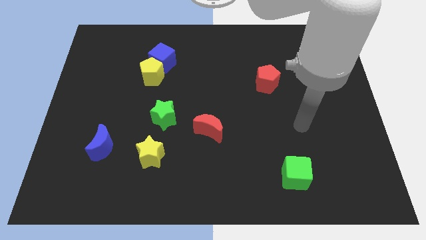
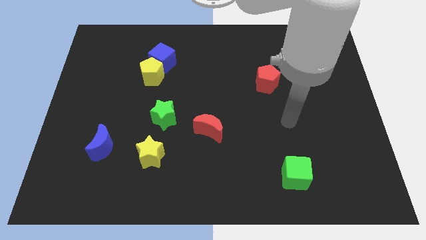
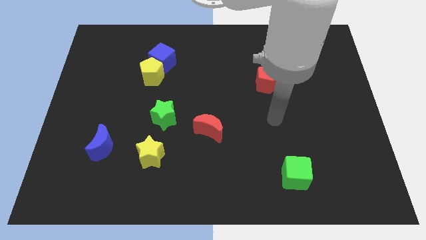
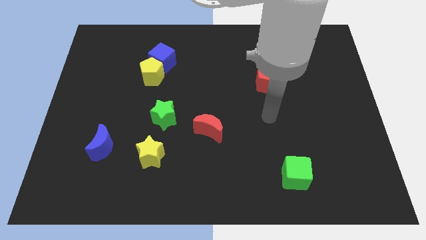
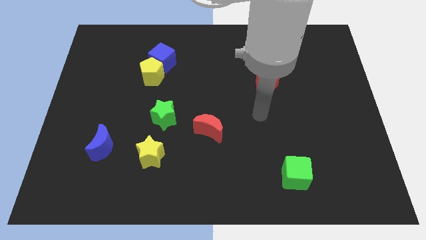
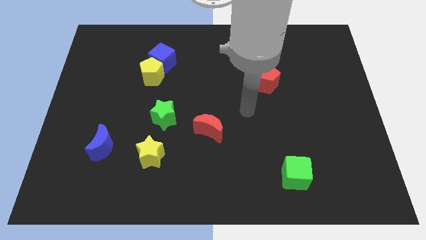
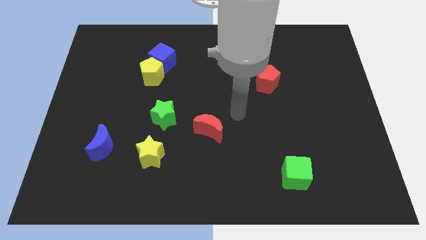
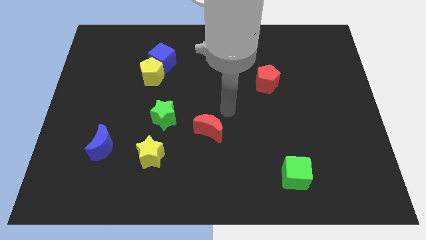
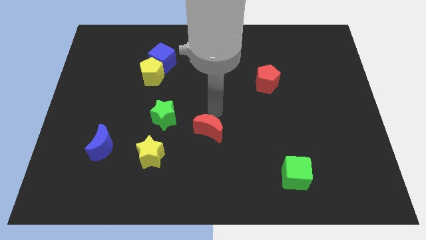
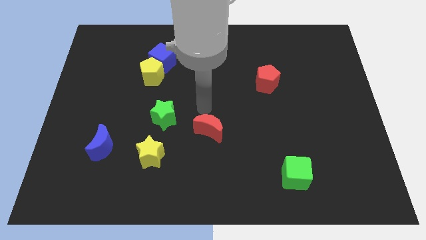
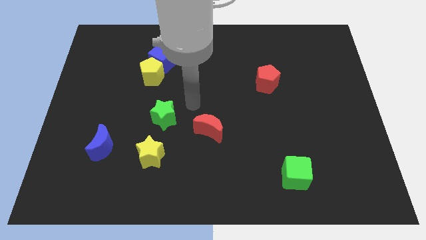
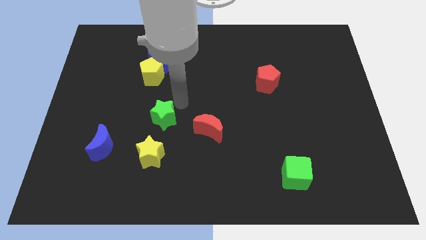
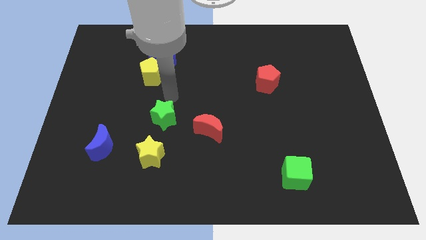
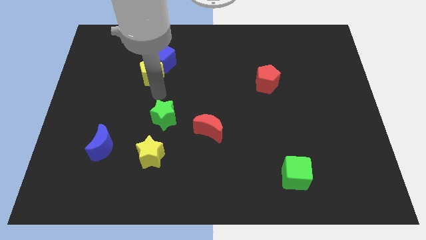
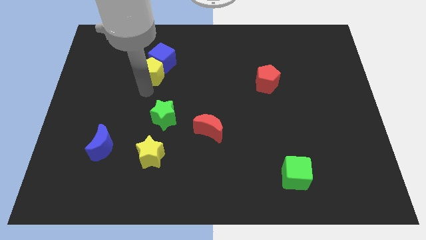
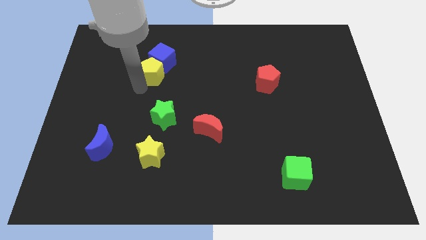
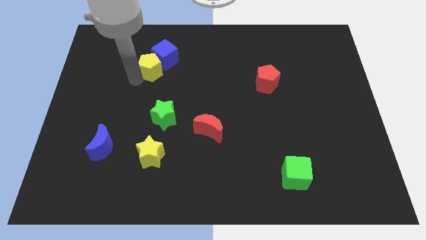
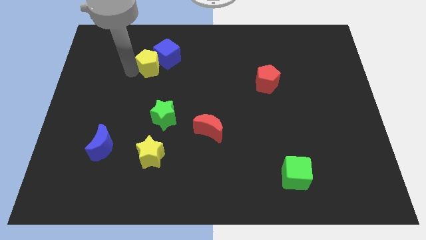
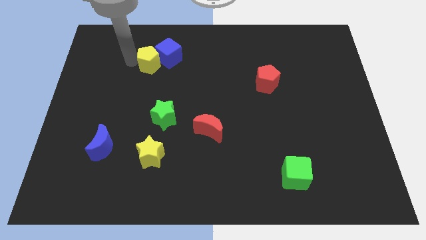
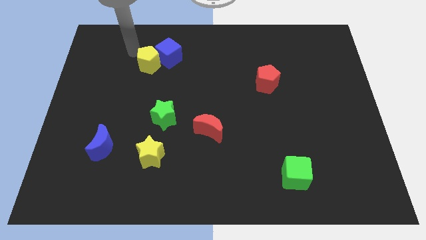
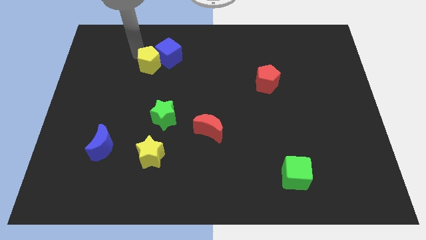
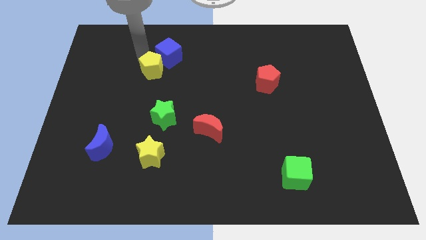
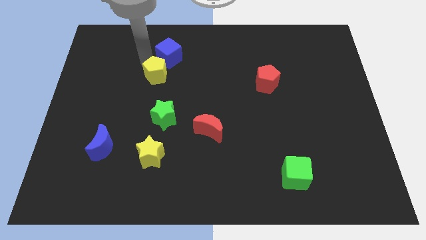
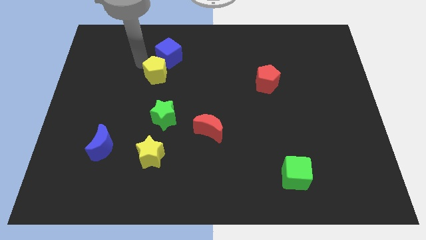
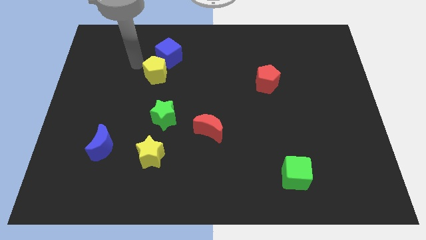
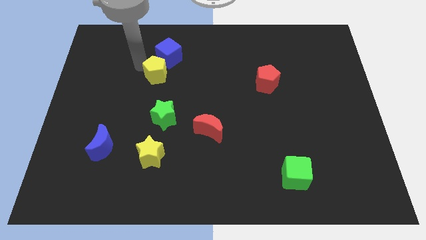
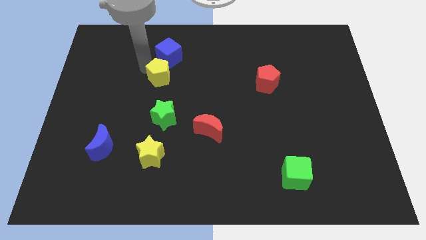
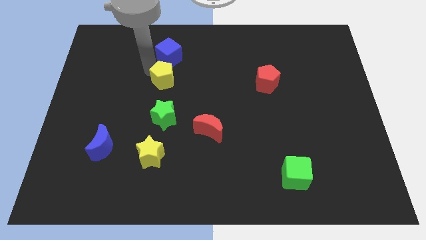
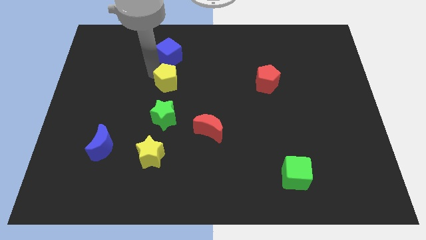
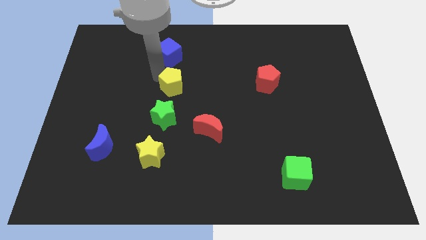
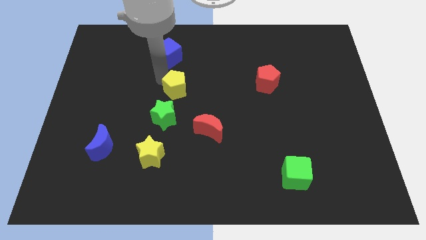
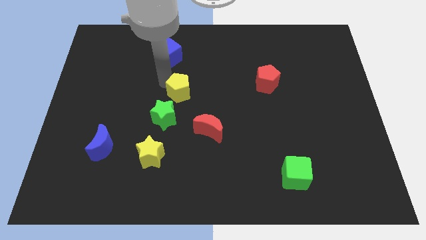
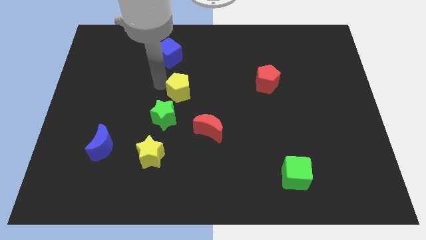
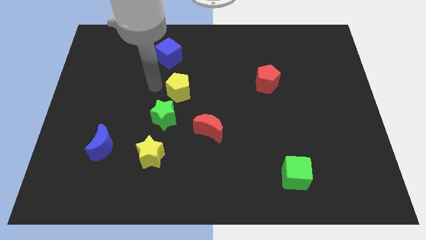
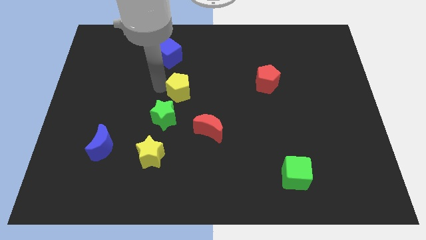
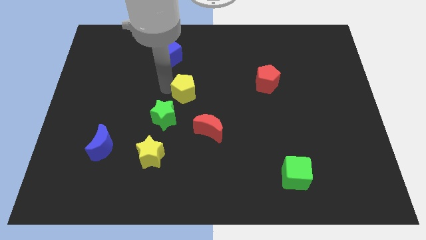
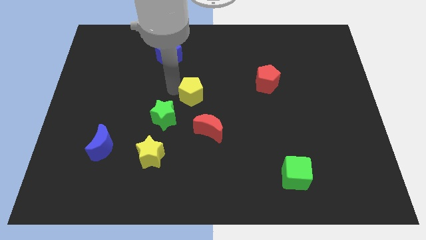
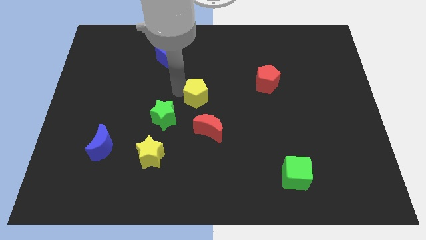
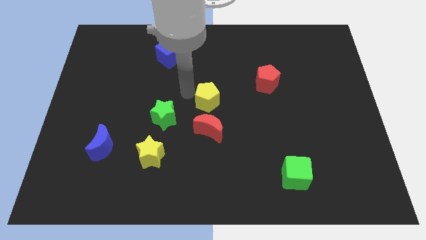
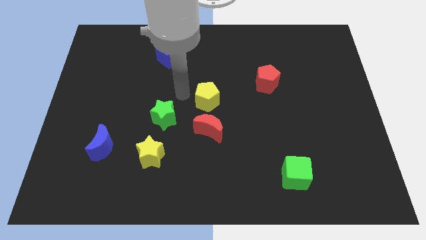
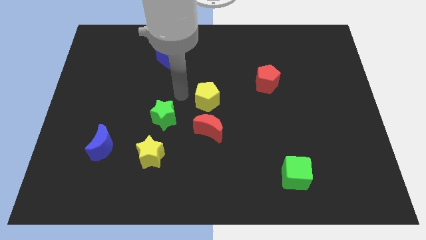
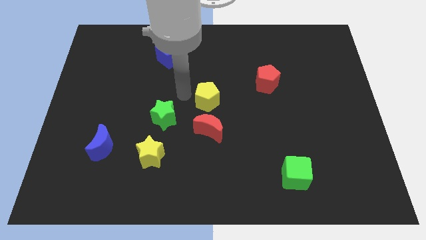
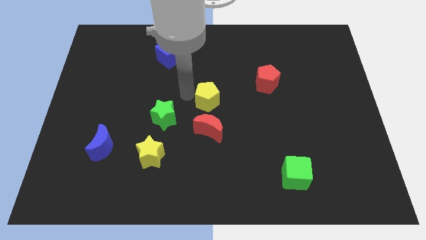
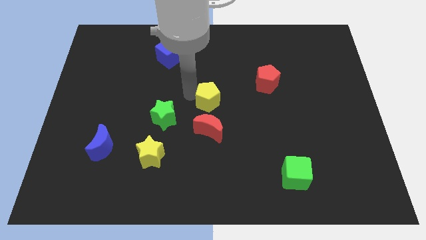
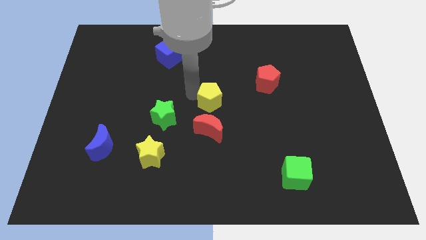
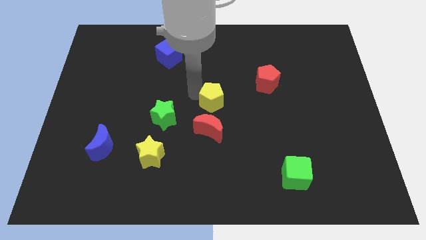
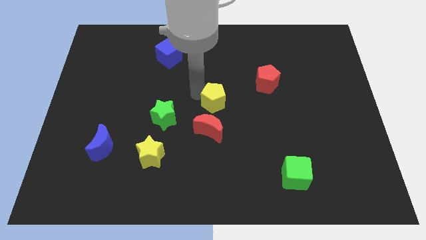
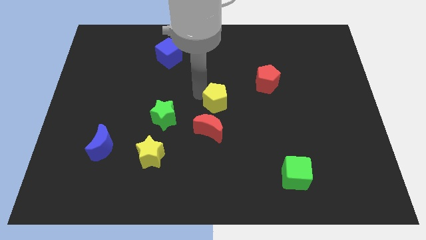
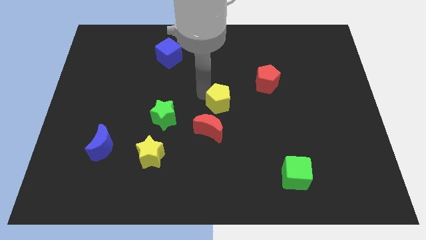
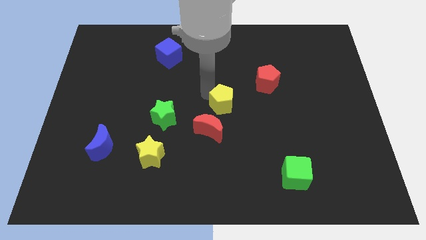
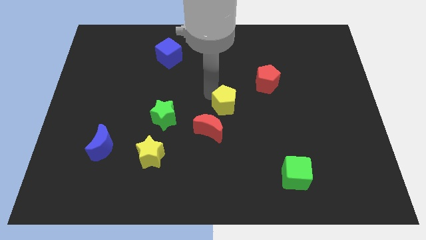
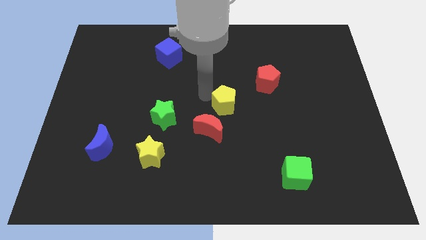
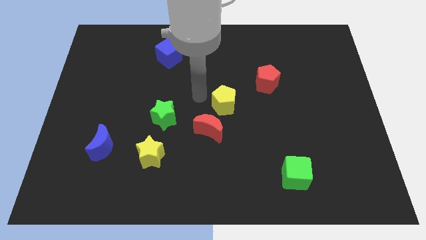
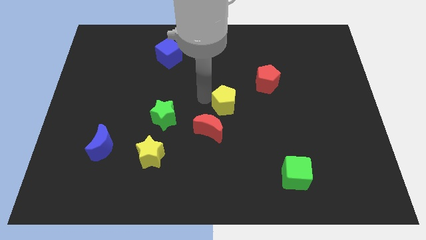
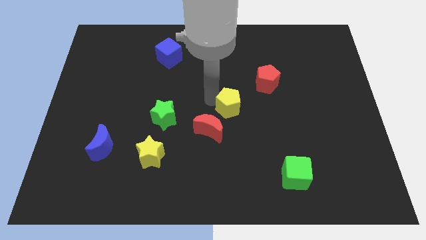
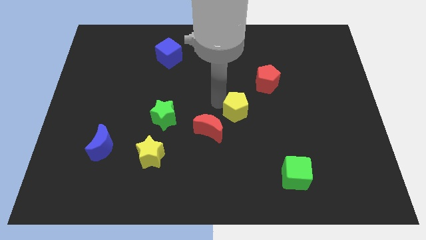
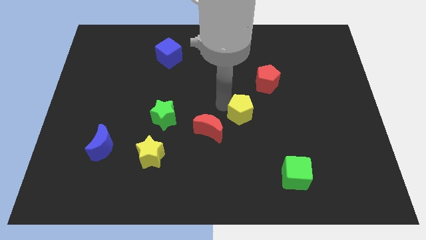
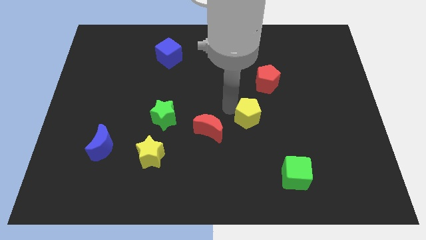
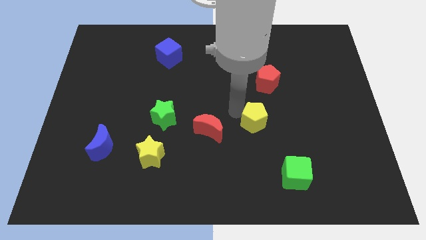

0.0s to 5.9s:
move the yellow pentagon below the red pentagon

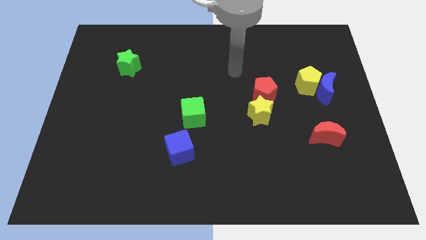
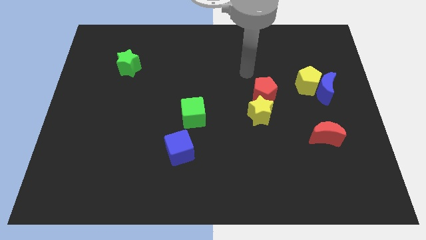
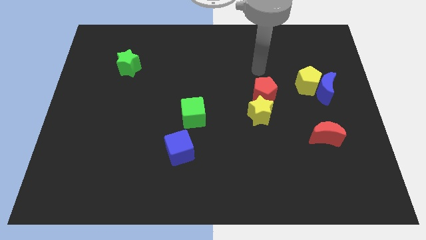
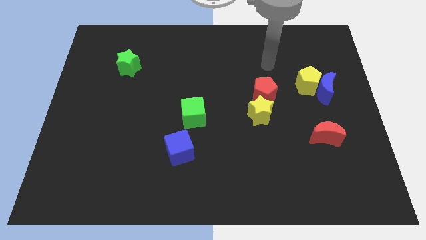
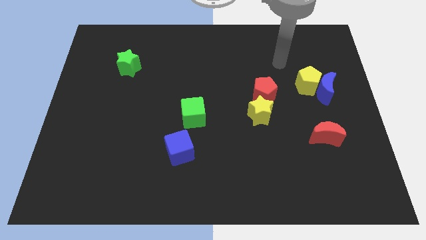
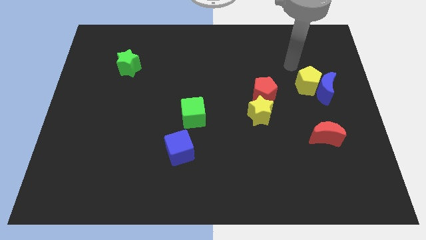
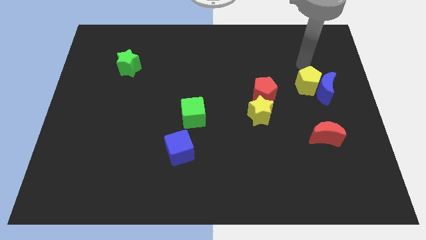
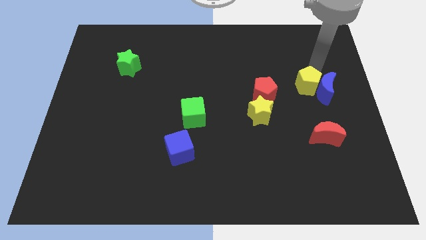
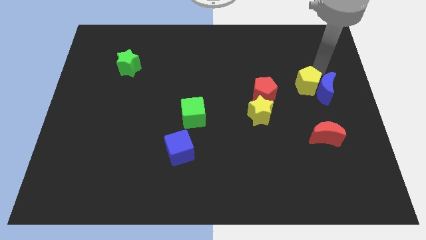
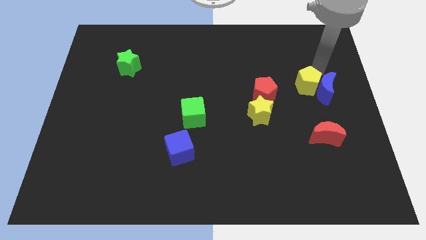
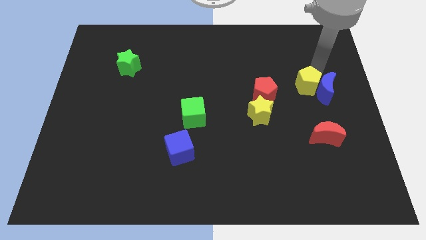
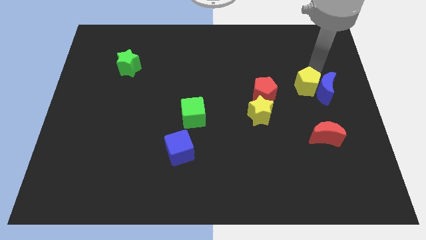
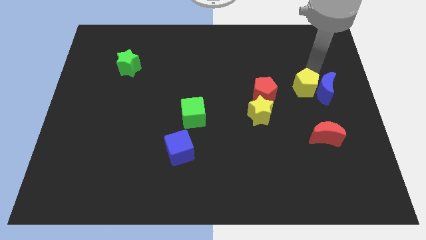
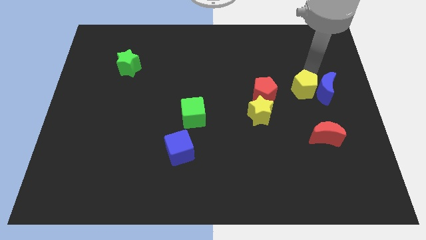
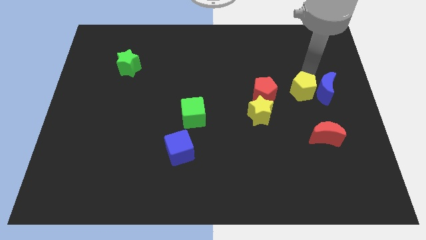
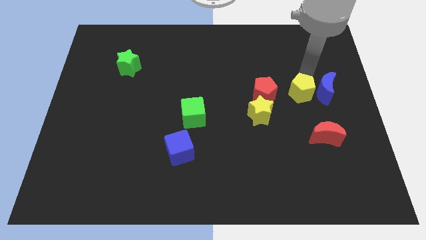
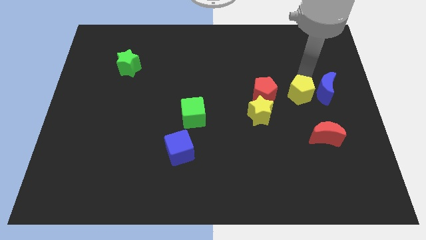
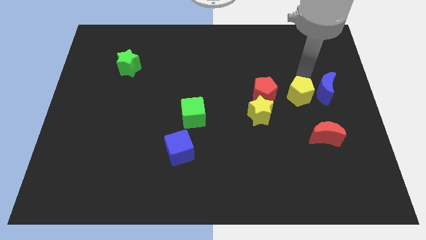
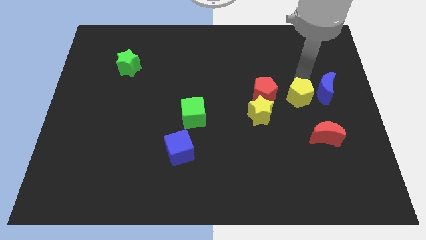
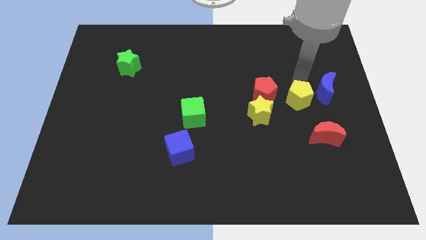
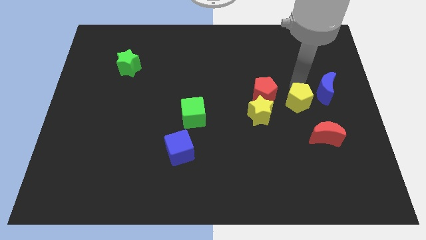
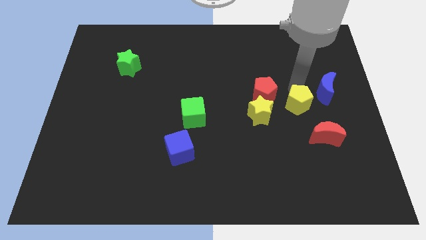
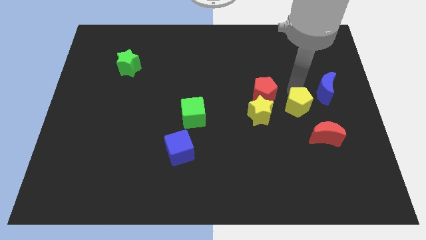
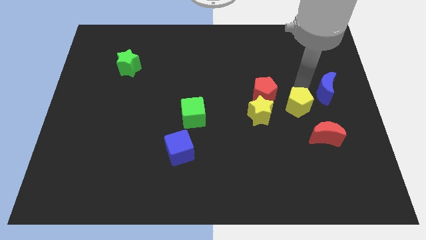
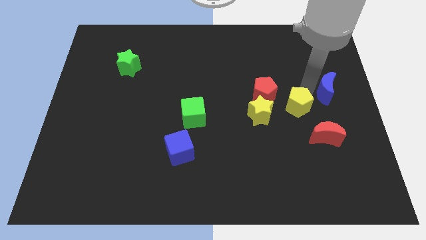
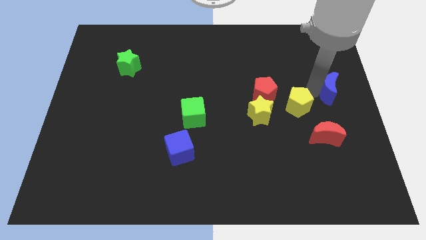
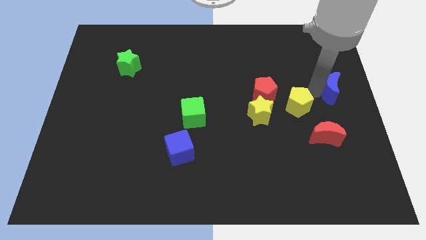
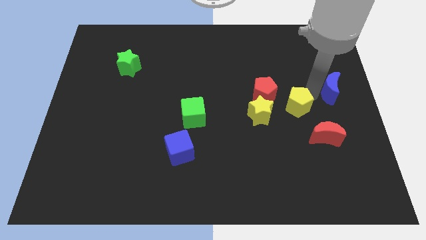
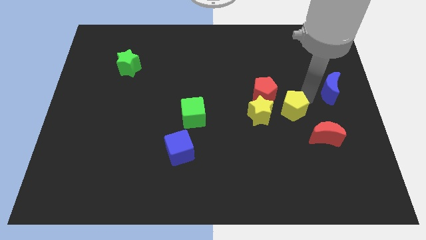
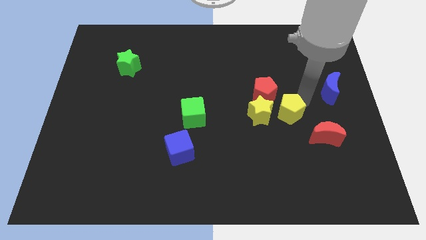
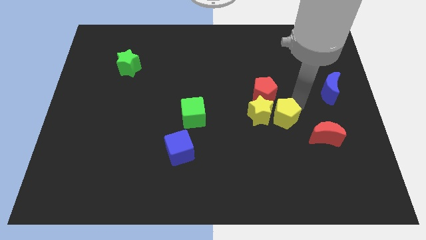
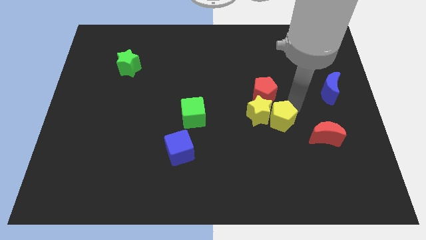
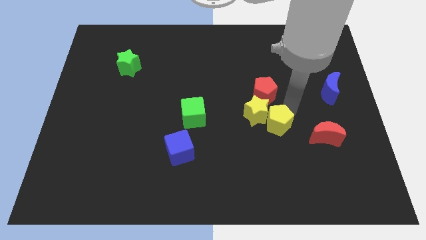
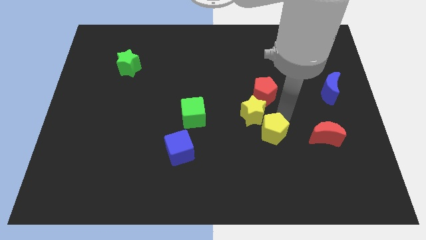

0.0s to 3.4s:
push the yellow pentagon to the bottom of the yellow star
